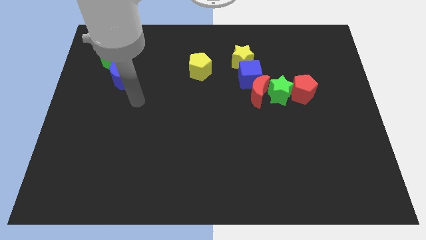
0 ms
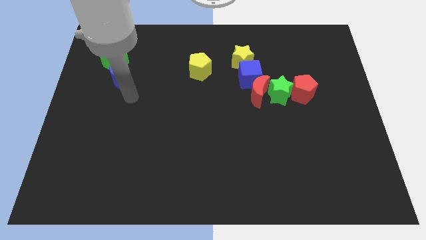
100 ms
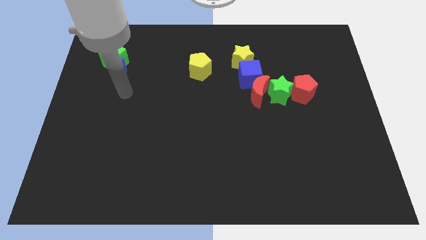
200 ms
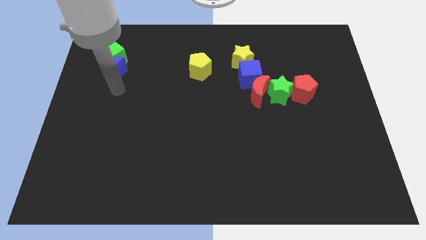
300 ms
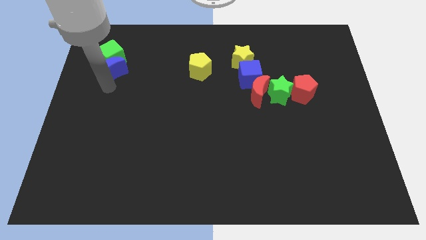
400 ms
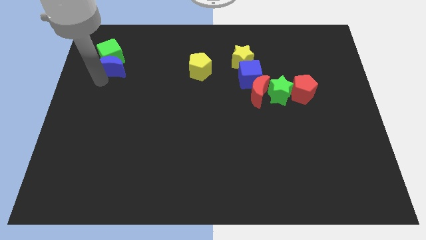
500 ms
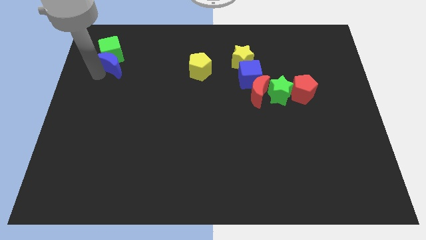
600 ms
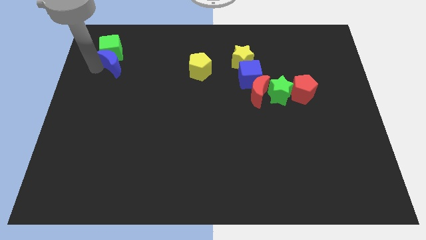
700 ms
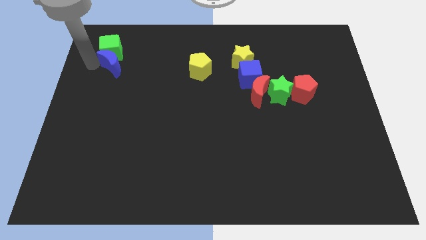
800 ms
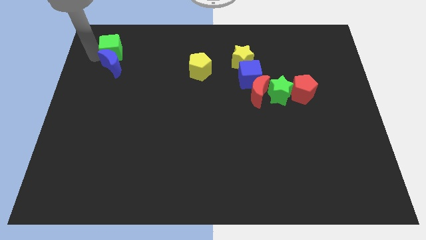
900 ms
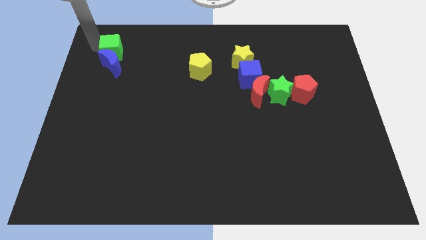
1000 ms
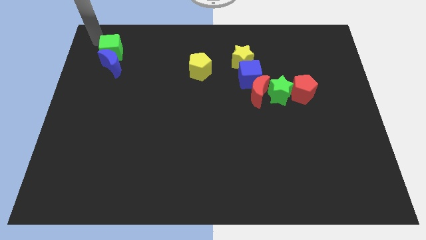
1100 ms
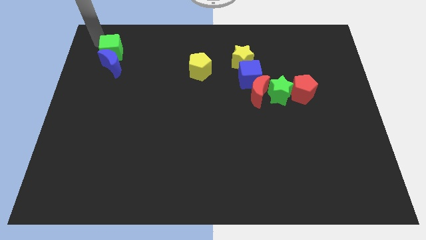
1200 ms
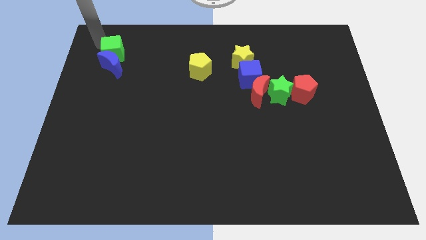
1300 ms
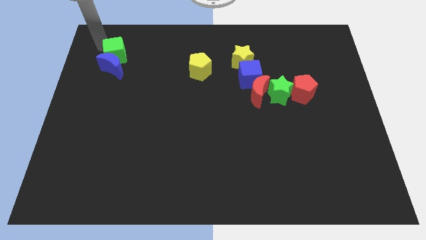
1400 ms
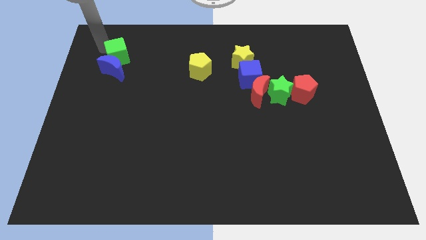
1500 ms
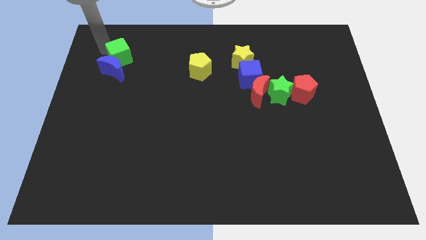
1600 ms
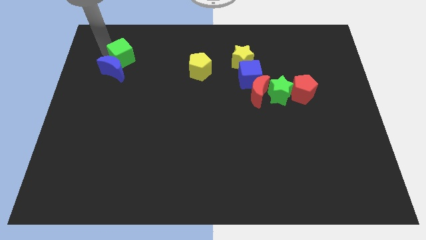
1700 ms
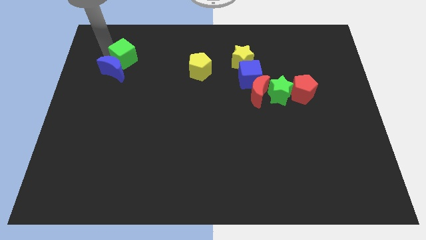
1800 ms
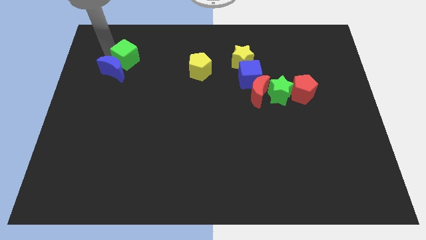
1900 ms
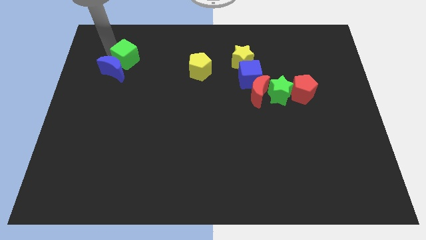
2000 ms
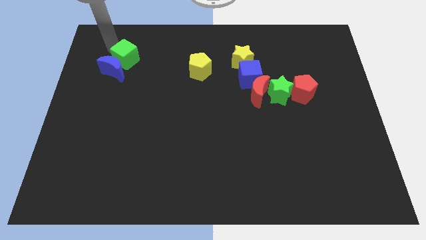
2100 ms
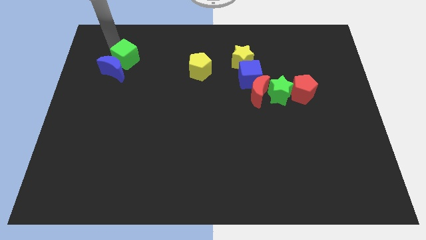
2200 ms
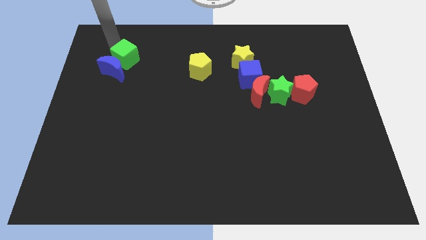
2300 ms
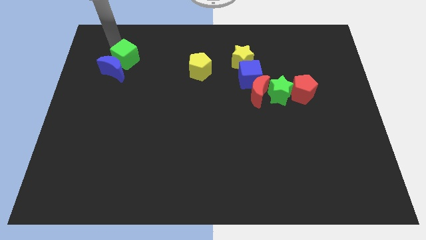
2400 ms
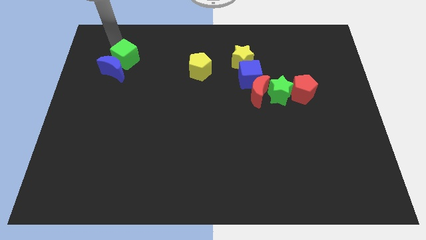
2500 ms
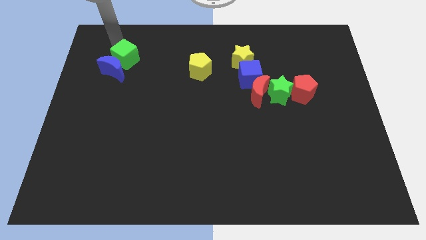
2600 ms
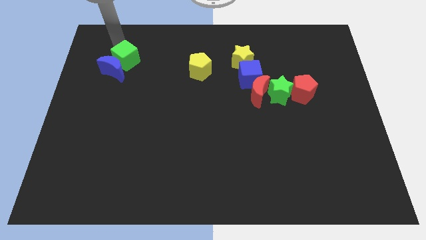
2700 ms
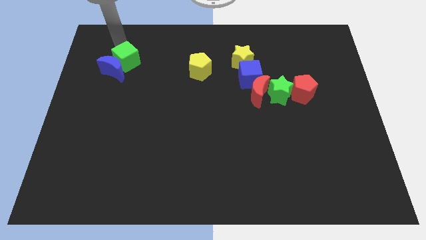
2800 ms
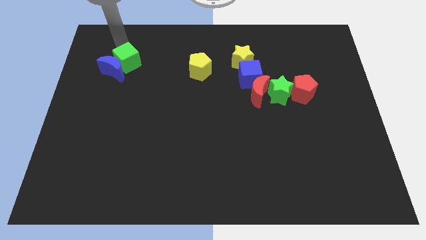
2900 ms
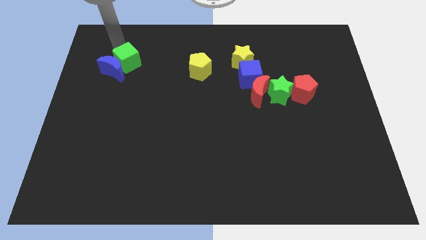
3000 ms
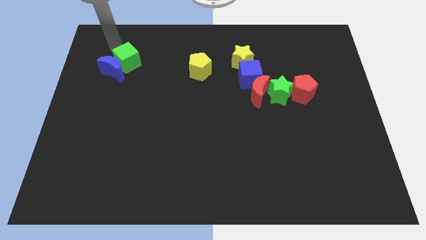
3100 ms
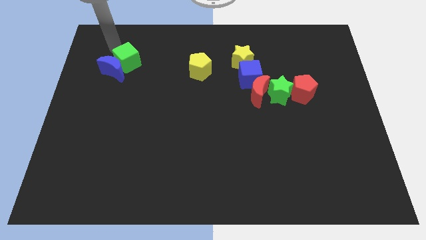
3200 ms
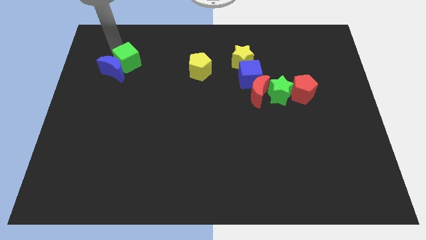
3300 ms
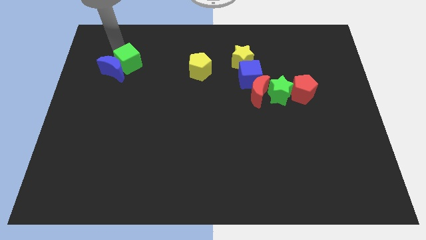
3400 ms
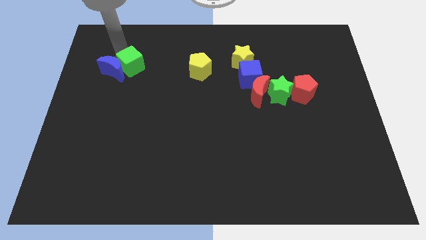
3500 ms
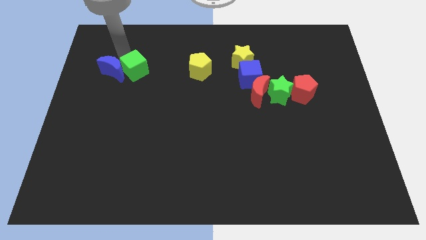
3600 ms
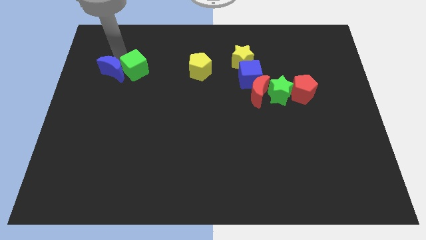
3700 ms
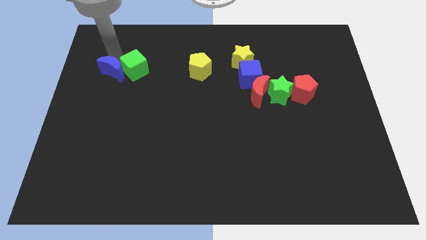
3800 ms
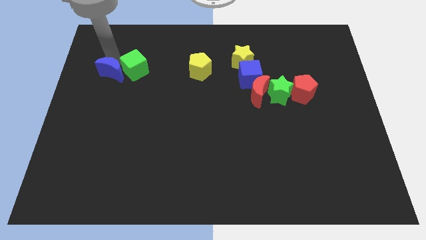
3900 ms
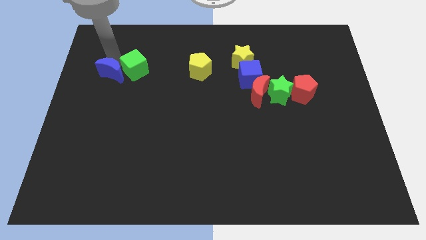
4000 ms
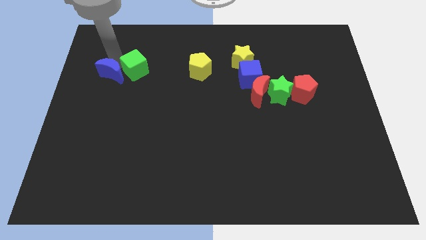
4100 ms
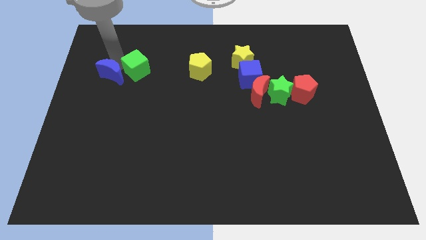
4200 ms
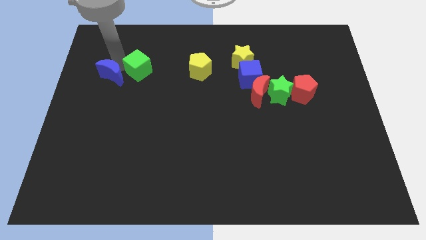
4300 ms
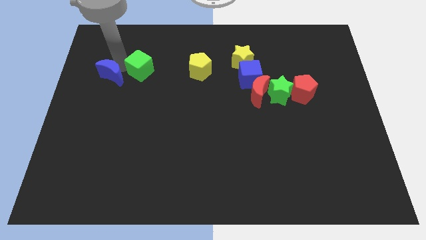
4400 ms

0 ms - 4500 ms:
slightly move the green cube downwards and to the right diagonally

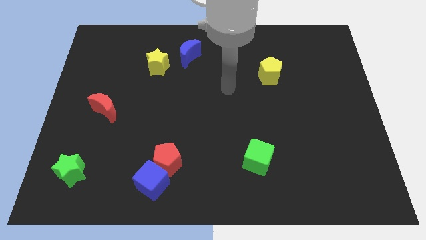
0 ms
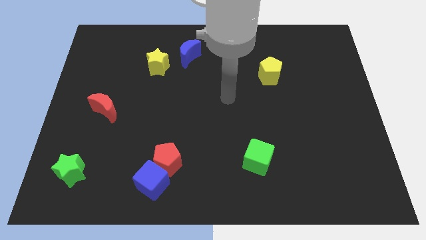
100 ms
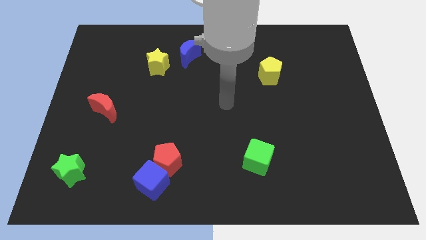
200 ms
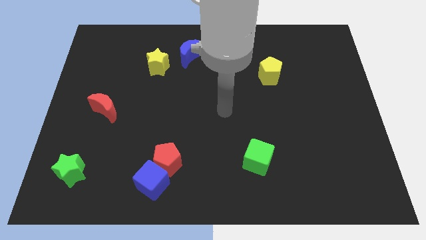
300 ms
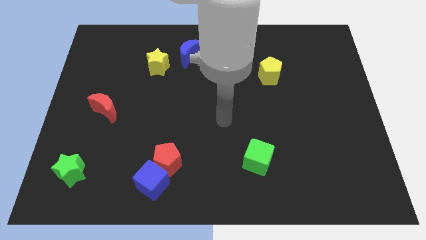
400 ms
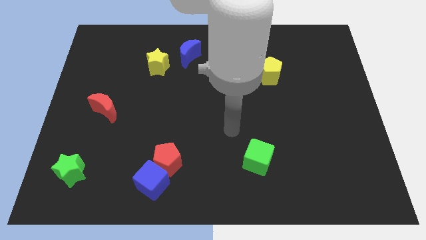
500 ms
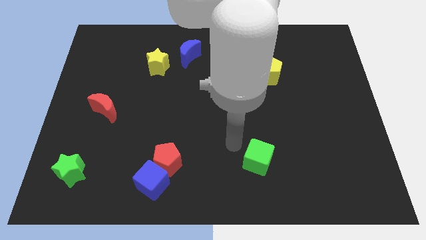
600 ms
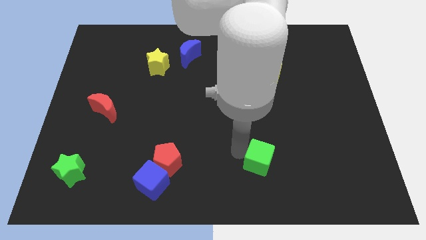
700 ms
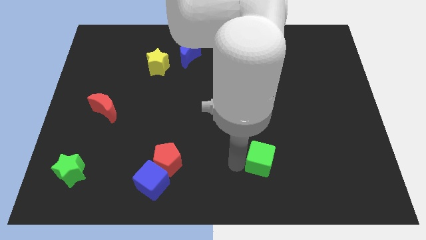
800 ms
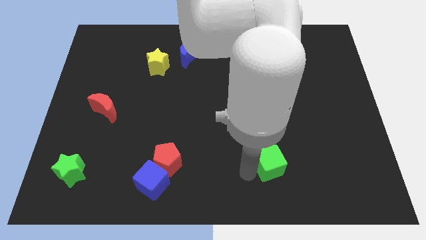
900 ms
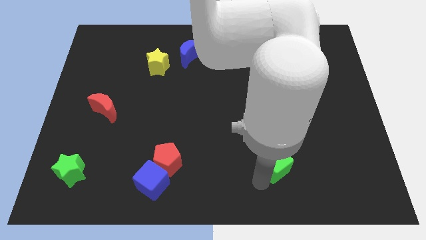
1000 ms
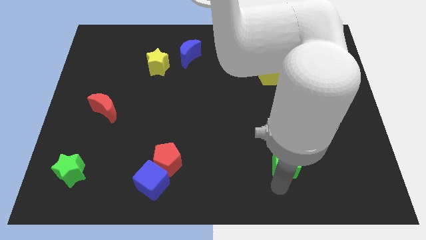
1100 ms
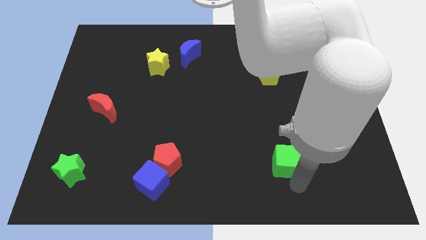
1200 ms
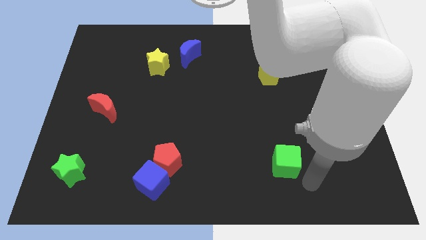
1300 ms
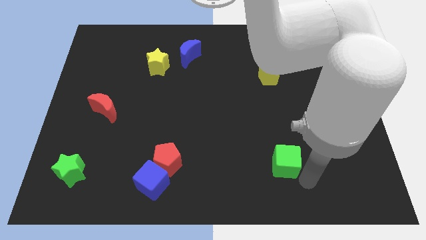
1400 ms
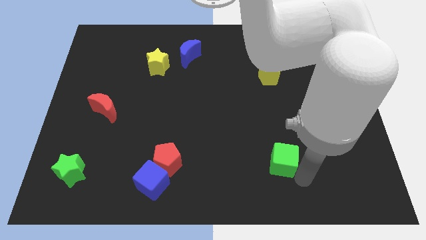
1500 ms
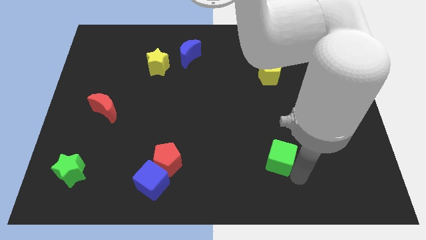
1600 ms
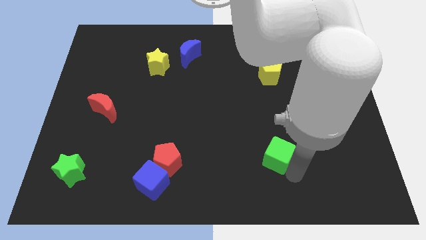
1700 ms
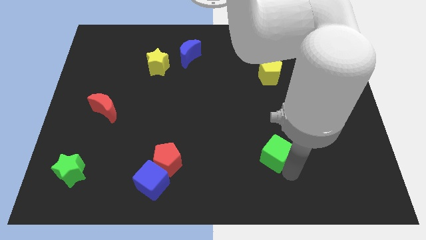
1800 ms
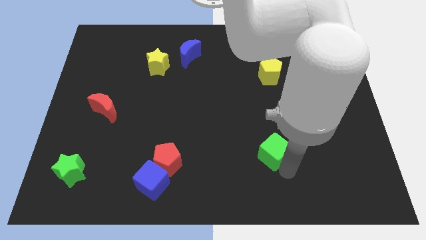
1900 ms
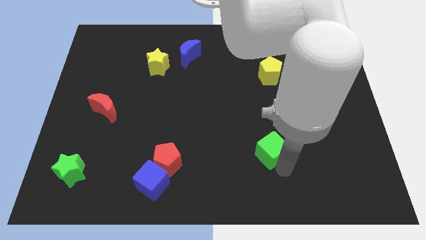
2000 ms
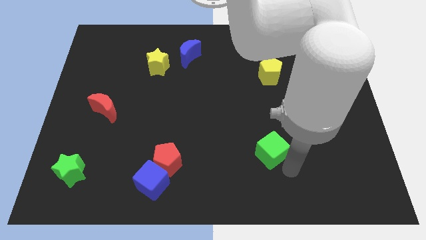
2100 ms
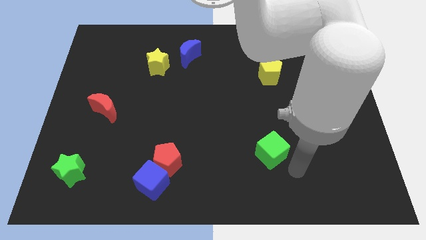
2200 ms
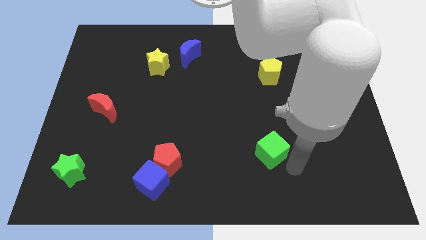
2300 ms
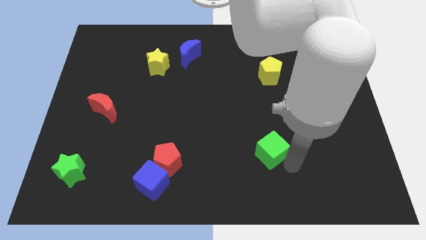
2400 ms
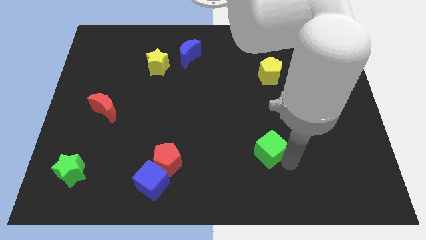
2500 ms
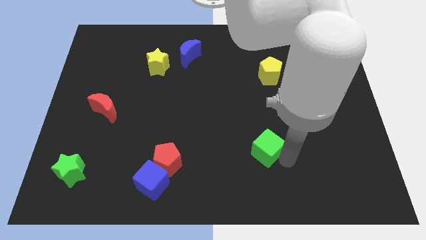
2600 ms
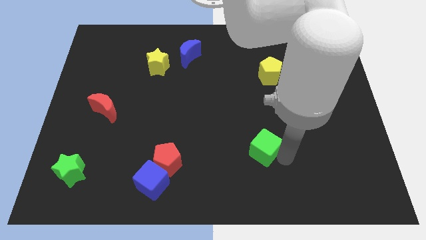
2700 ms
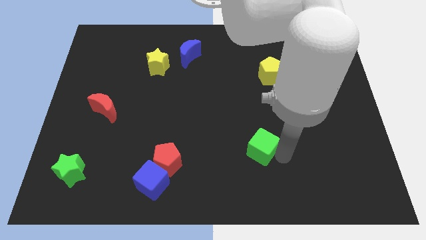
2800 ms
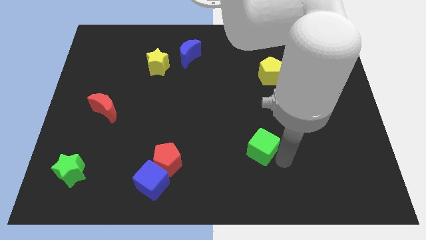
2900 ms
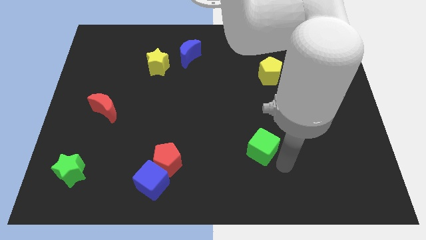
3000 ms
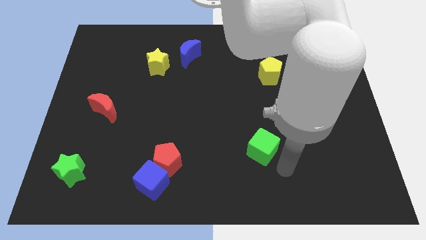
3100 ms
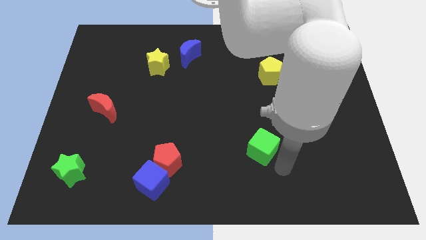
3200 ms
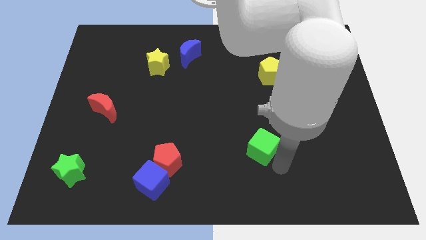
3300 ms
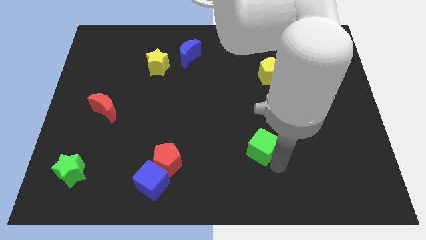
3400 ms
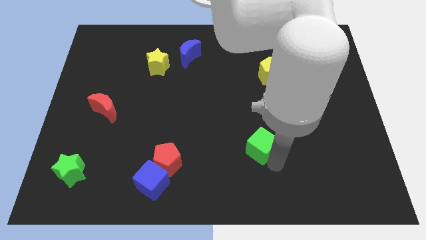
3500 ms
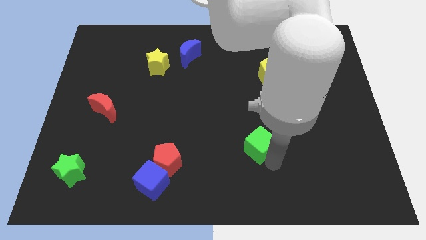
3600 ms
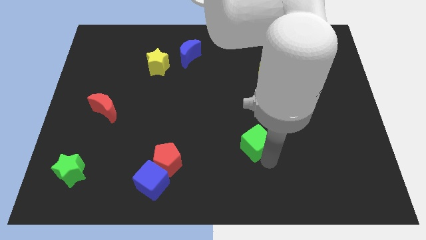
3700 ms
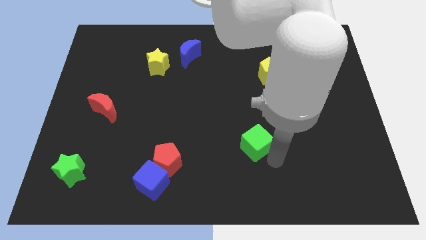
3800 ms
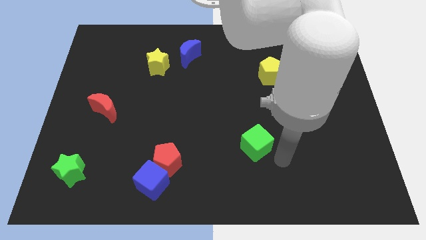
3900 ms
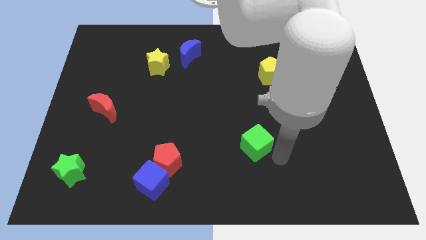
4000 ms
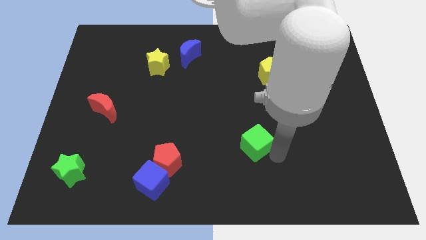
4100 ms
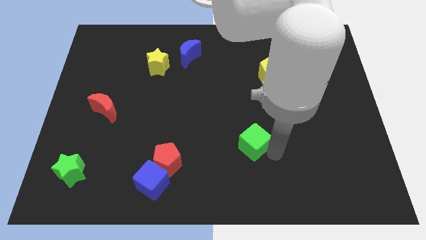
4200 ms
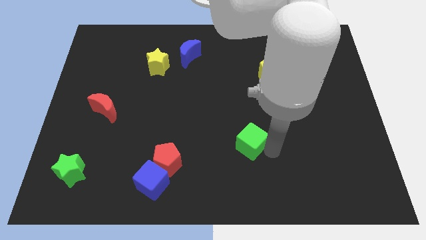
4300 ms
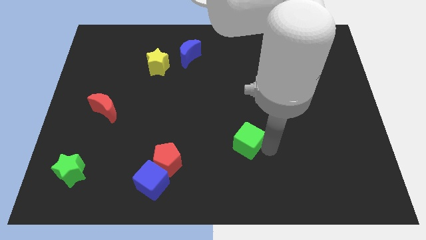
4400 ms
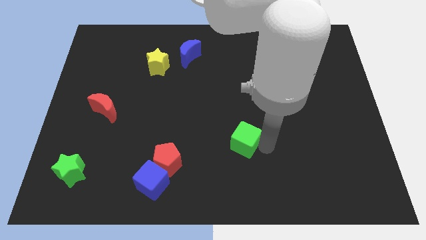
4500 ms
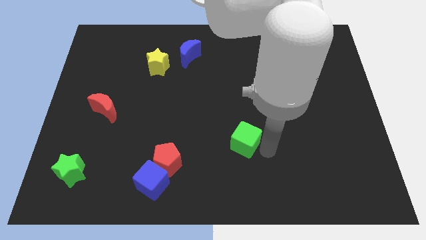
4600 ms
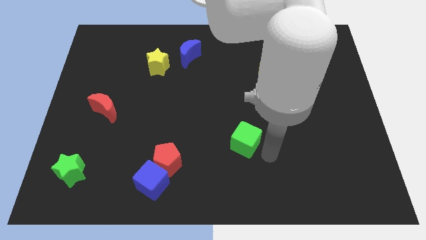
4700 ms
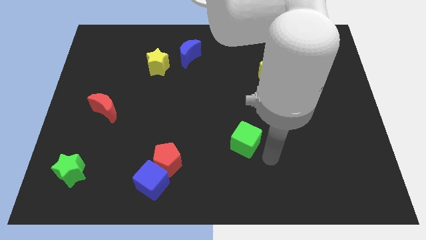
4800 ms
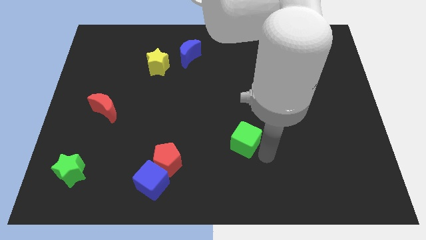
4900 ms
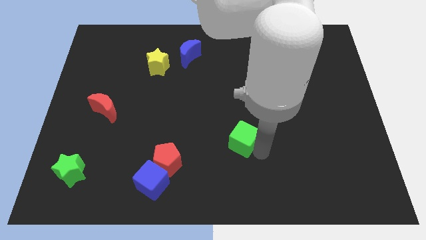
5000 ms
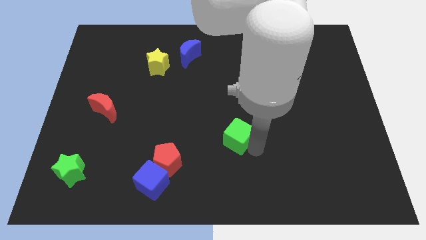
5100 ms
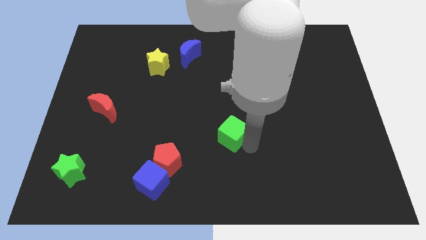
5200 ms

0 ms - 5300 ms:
slightly slide the green cube upwards and then to the left
